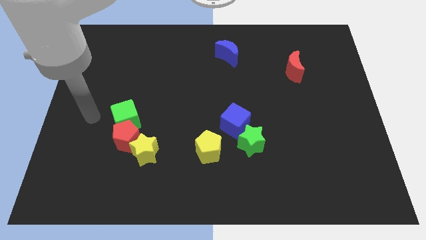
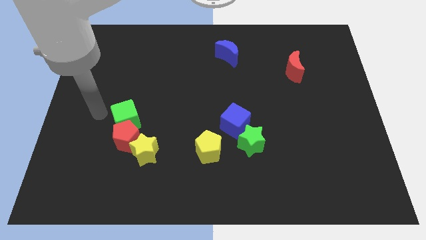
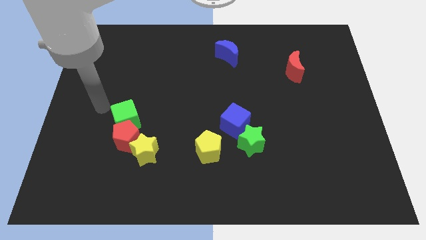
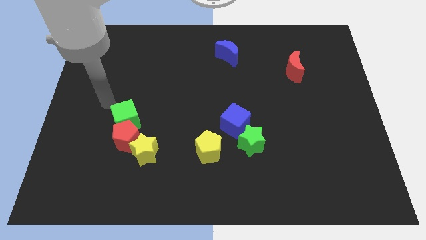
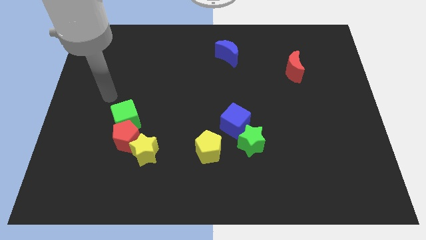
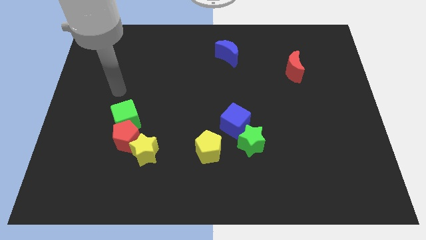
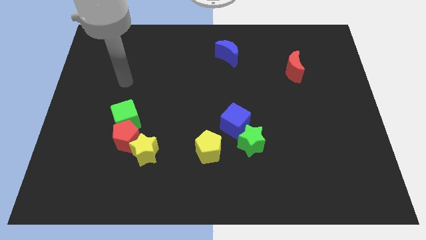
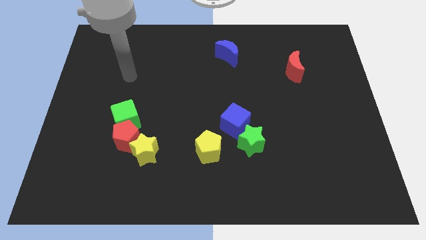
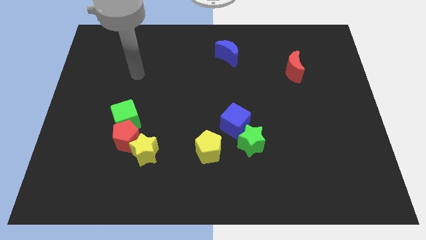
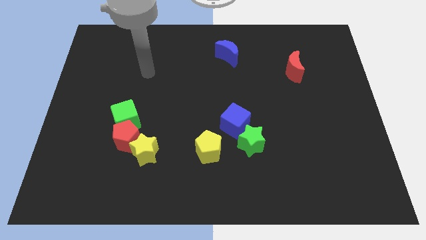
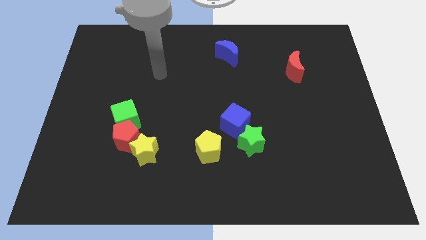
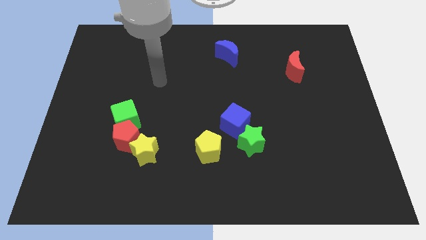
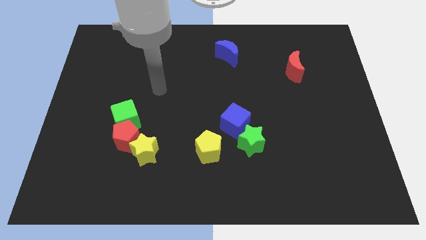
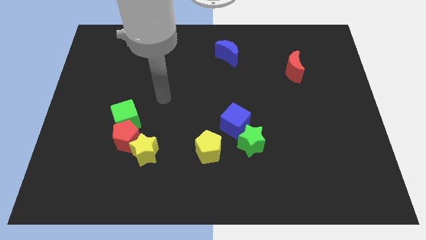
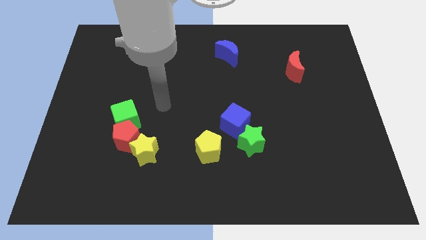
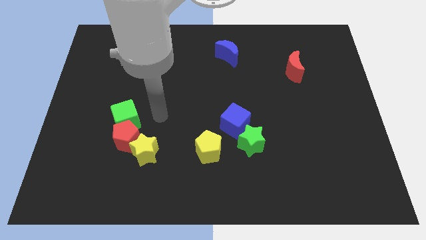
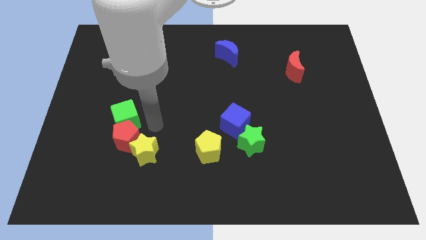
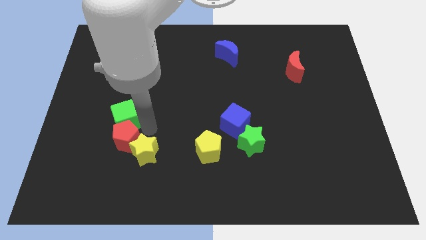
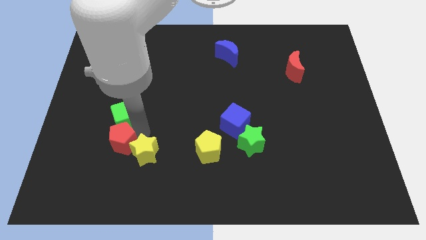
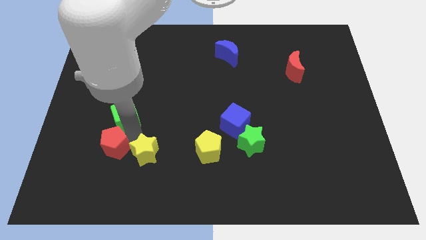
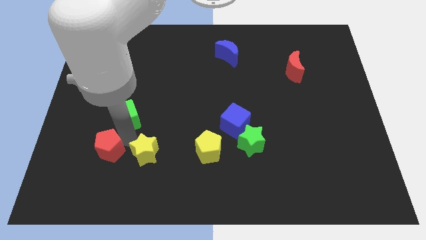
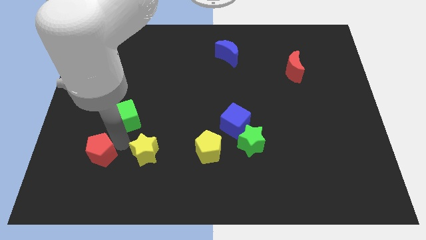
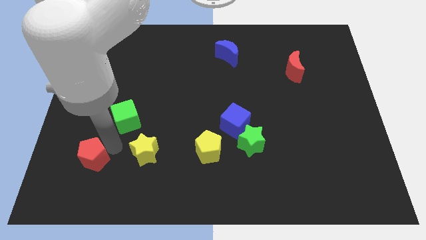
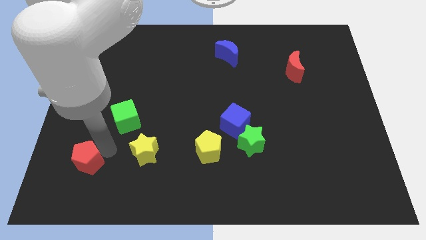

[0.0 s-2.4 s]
pull the red pentagon apart from the yellow star and green cube

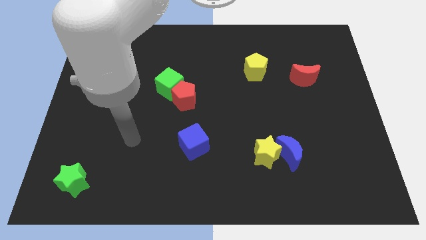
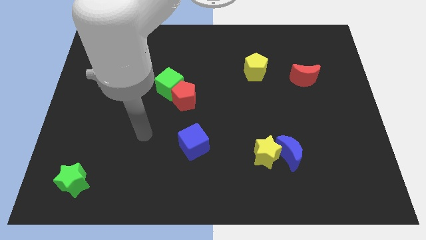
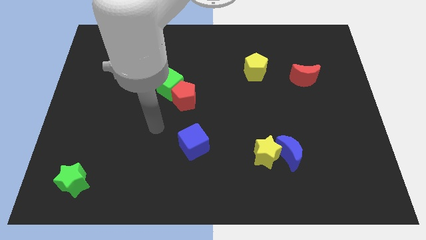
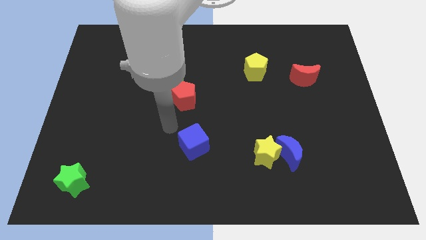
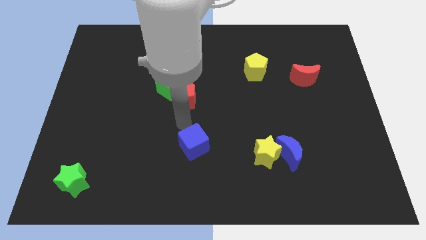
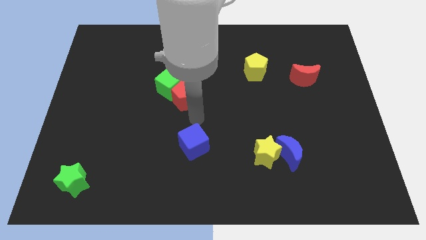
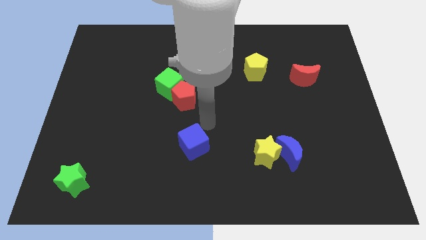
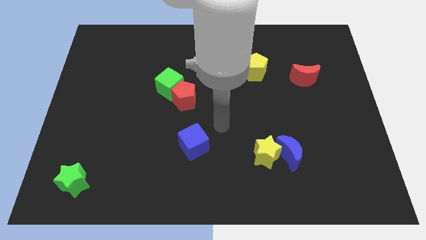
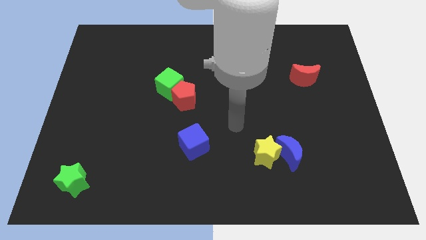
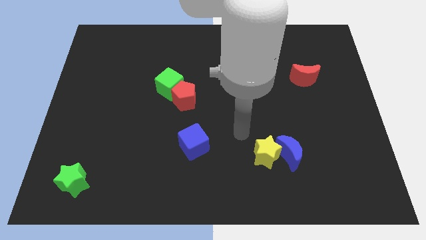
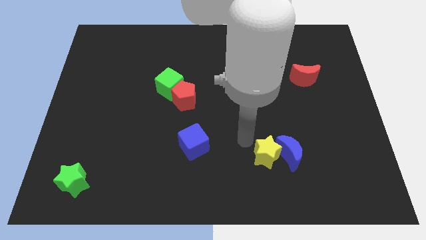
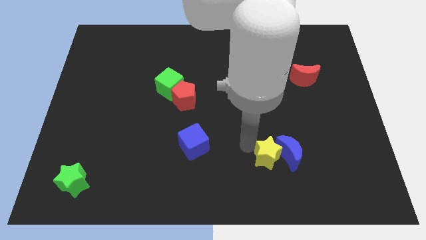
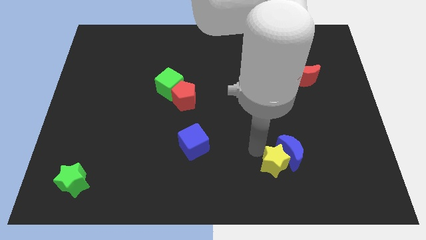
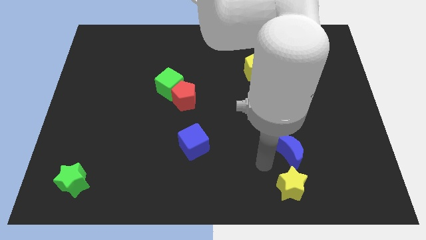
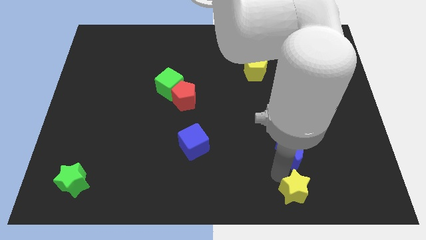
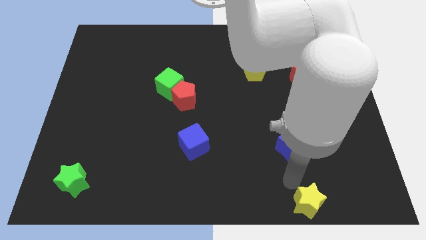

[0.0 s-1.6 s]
pull the blue moon apart from the yellow star

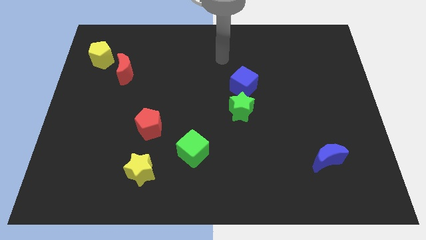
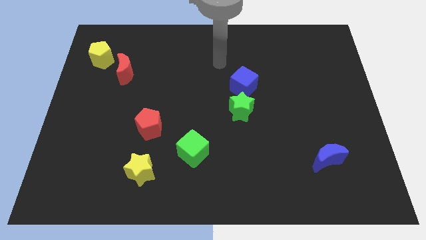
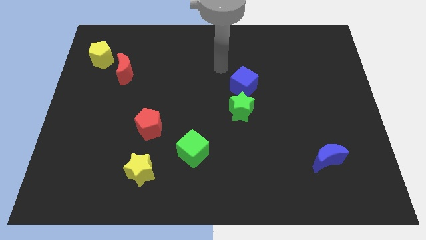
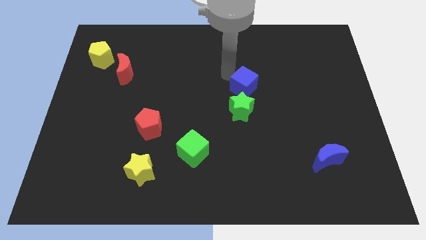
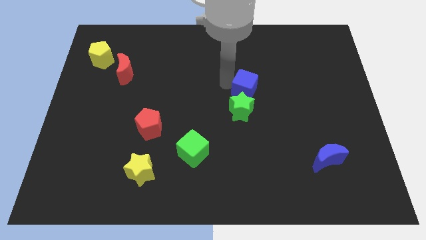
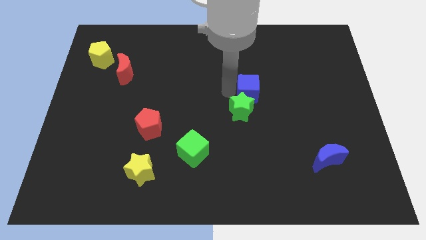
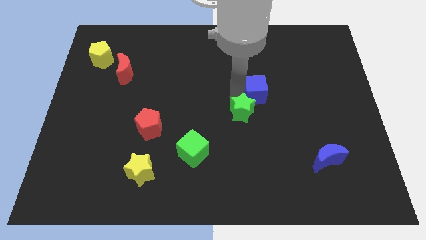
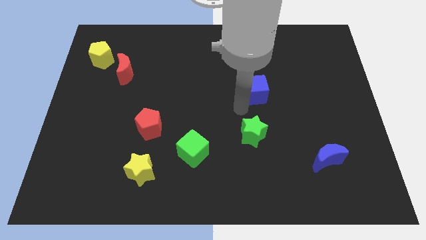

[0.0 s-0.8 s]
move the blue cube away from the green star

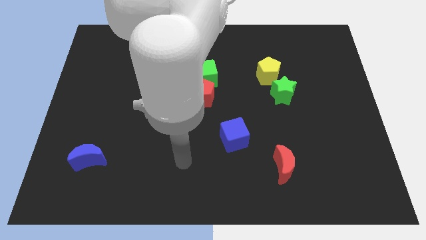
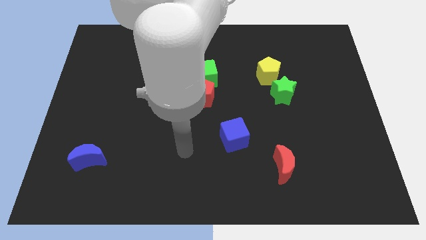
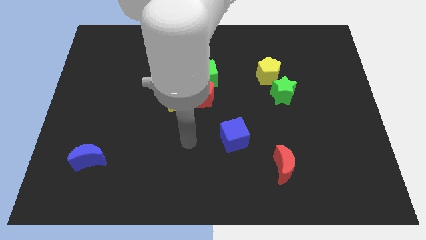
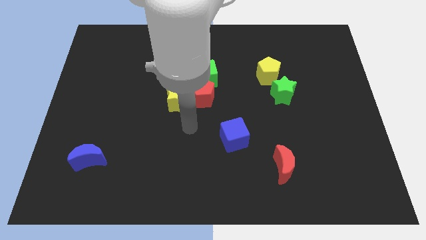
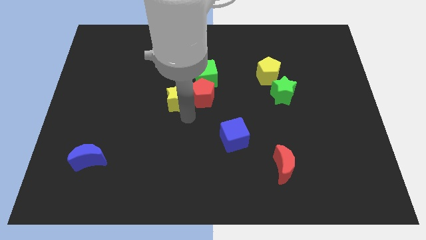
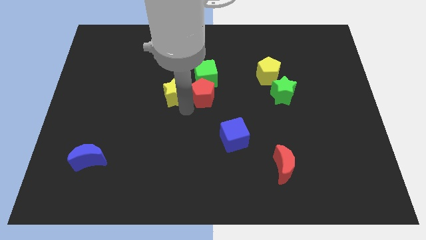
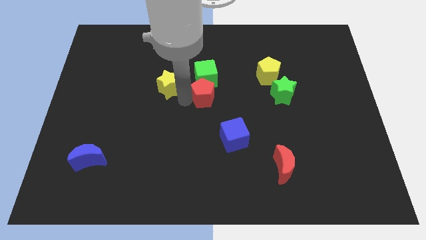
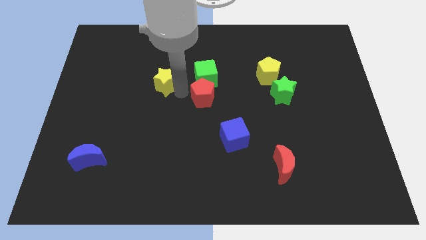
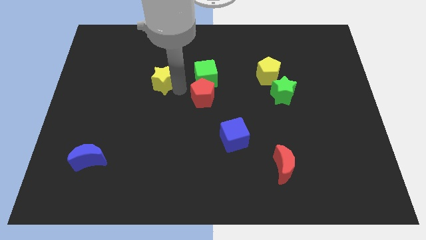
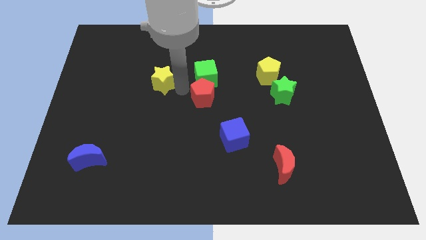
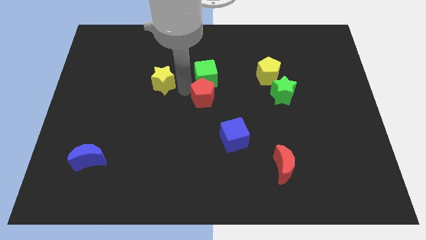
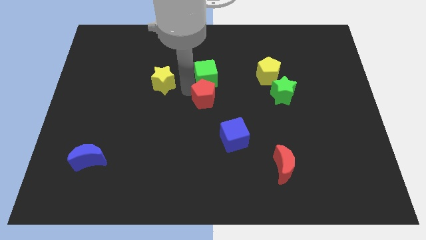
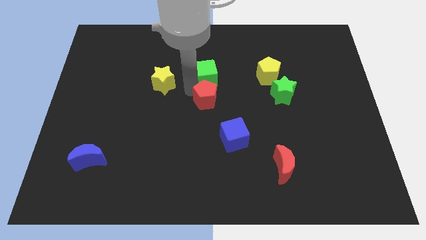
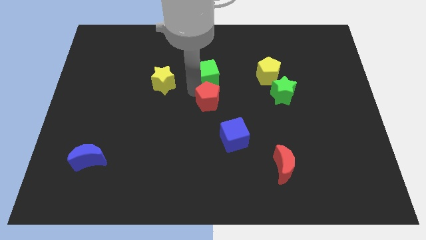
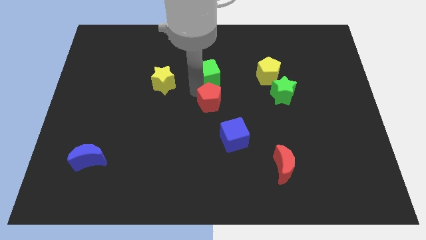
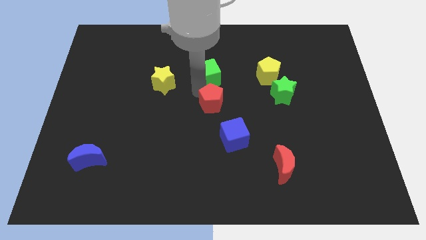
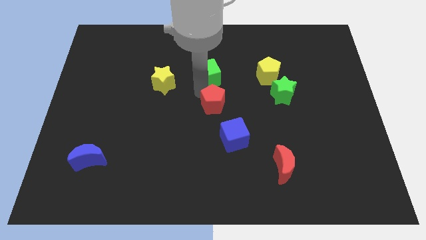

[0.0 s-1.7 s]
move the red pentagon away from the yellow star and green cube

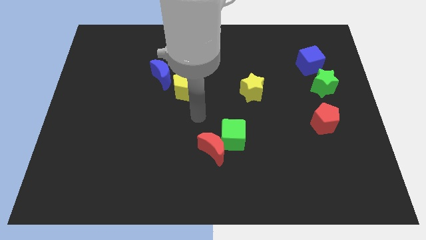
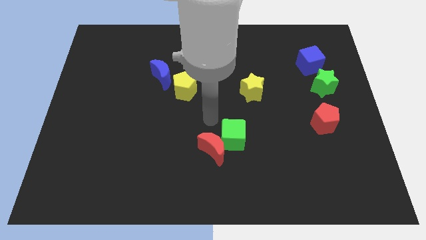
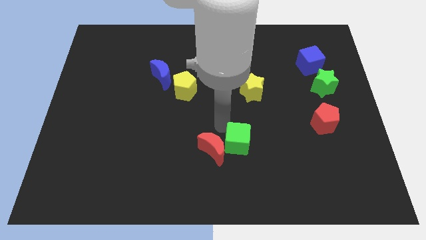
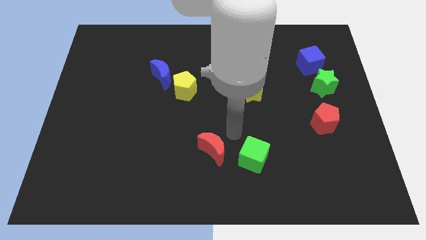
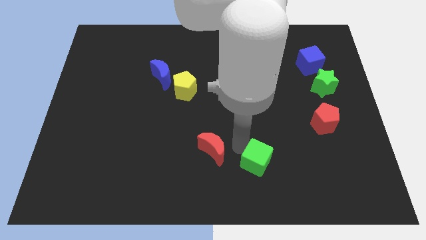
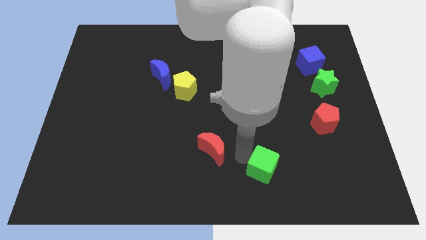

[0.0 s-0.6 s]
pull the red moon apart from the green cube

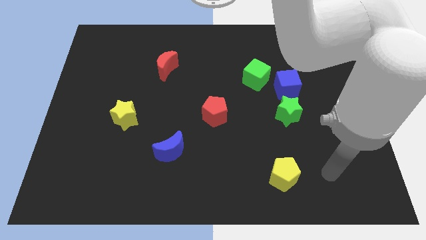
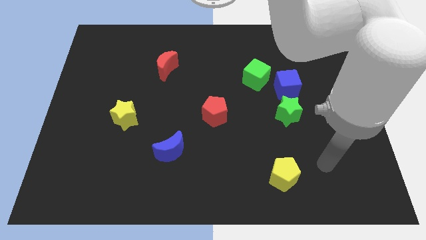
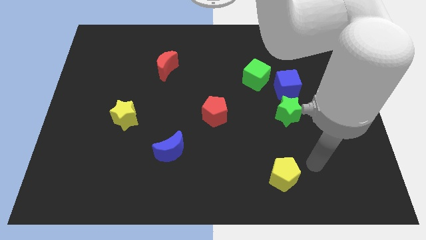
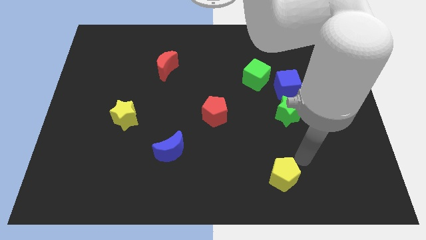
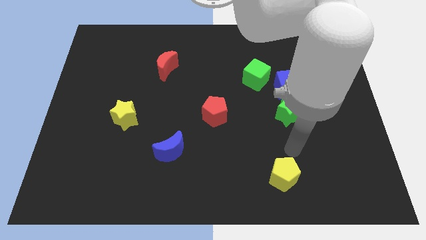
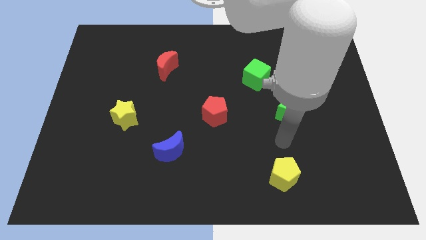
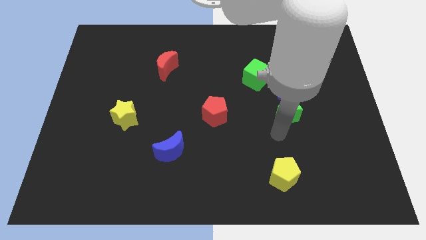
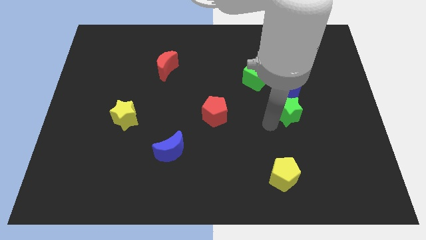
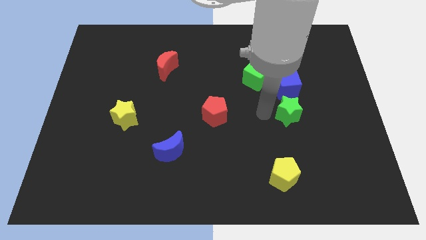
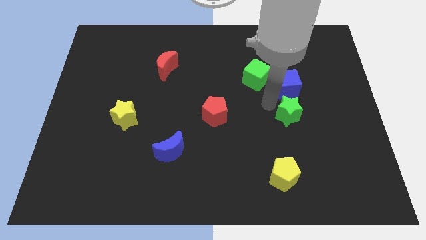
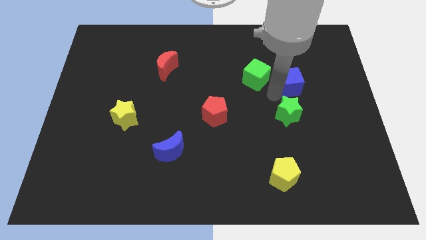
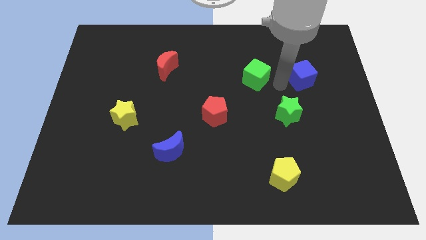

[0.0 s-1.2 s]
pull the green cube apart from the blue cube

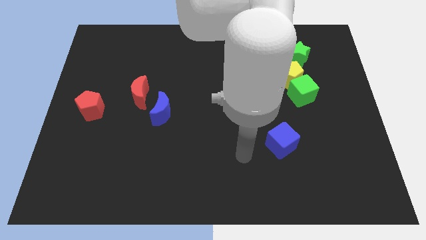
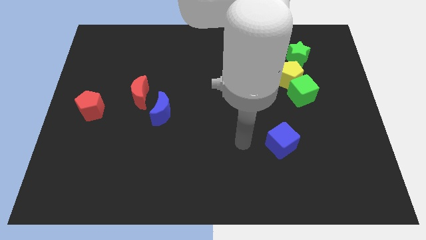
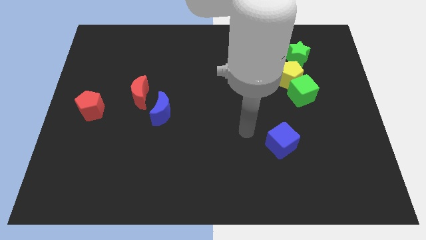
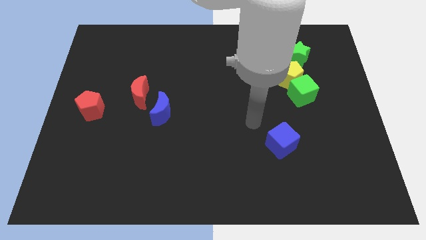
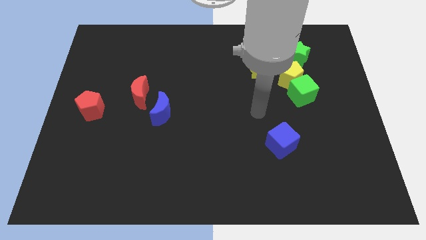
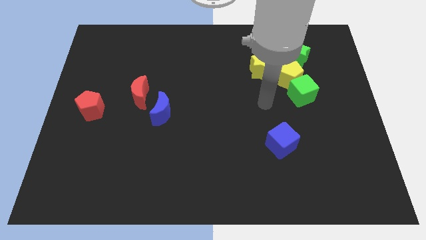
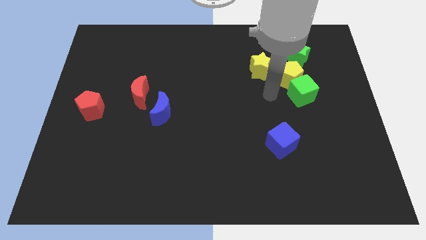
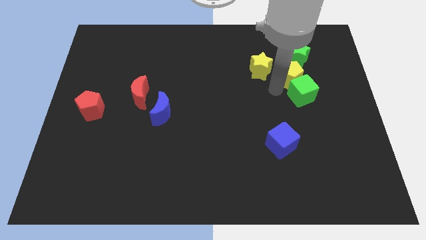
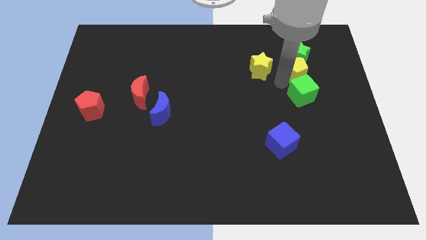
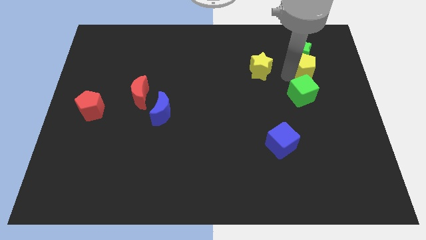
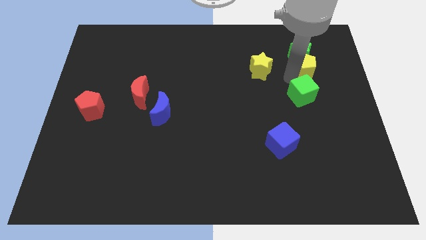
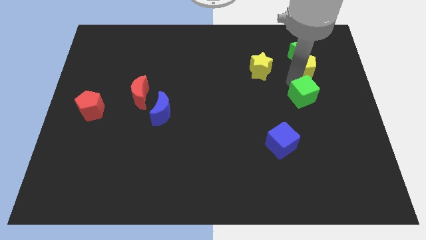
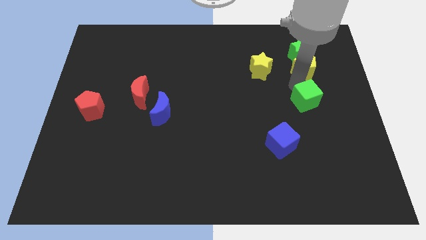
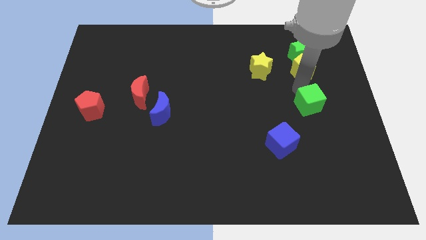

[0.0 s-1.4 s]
move the green cube away from the yellow pentagon
